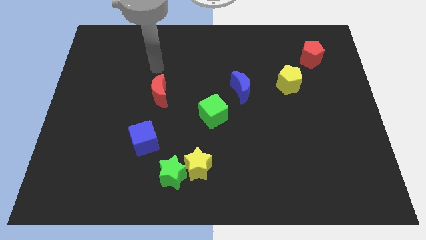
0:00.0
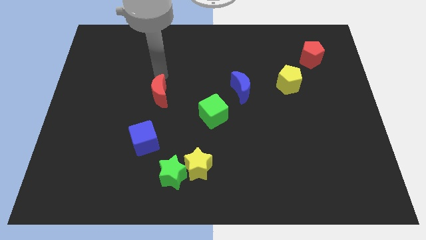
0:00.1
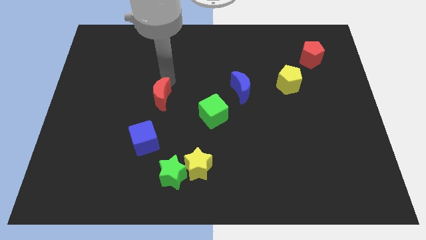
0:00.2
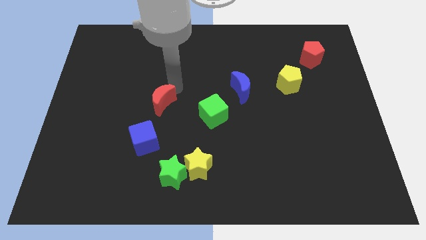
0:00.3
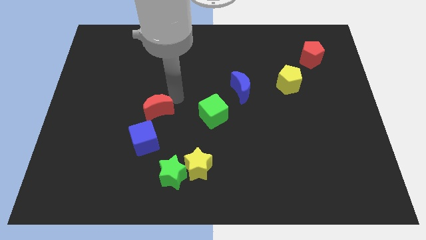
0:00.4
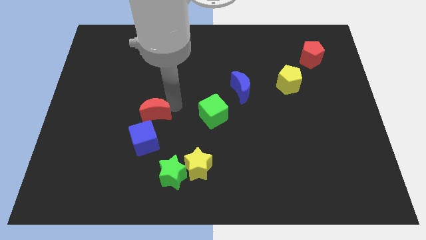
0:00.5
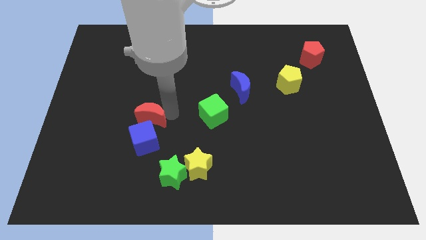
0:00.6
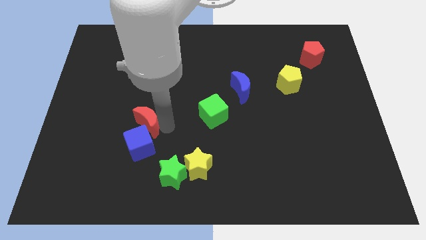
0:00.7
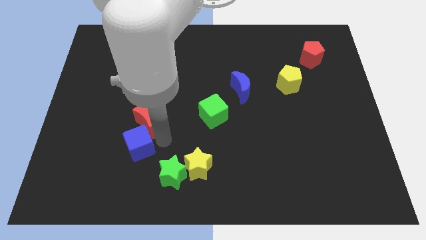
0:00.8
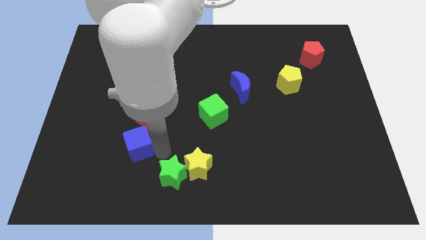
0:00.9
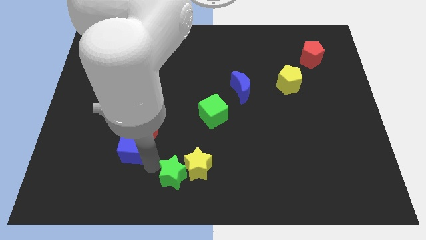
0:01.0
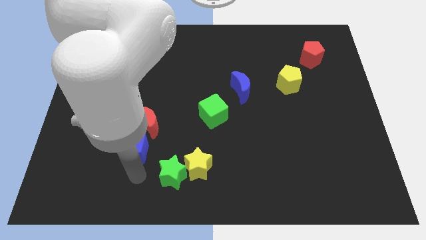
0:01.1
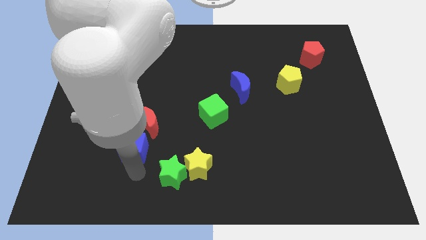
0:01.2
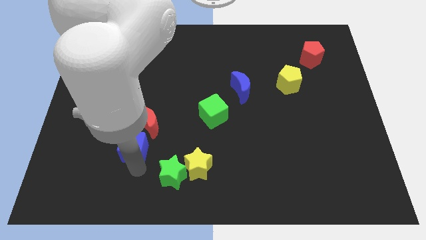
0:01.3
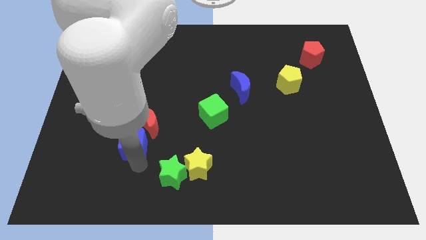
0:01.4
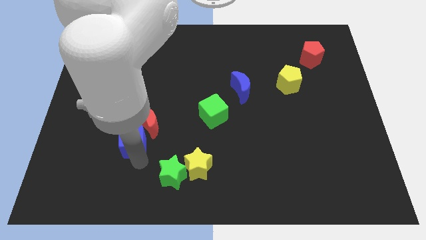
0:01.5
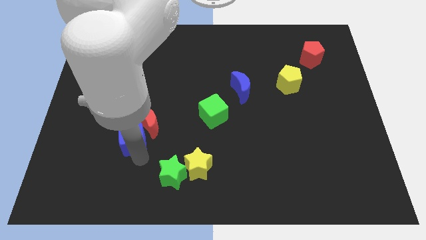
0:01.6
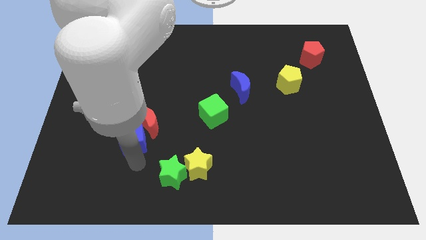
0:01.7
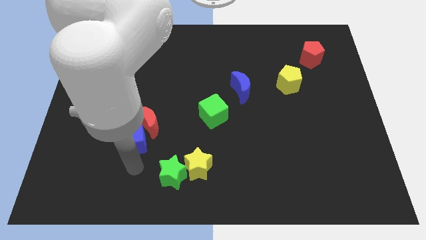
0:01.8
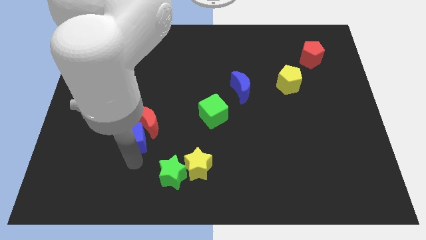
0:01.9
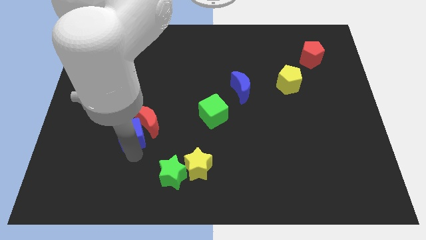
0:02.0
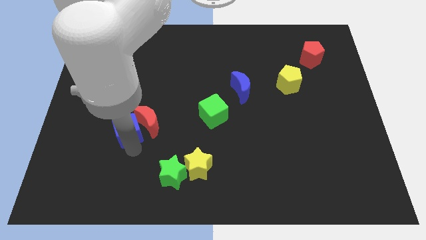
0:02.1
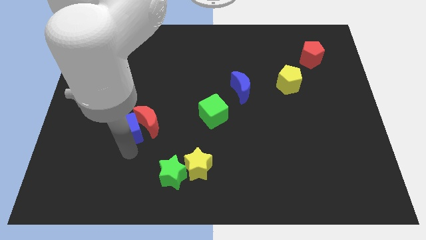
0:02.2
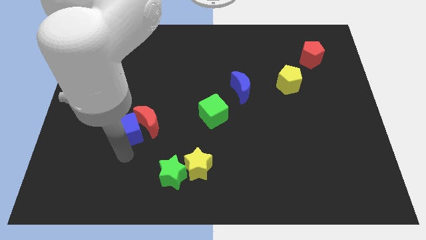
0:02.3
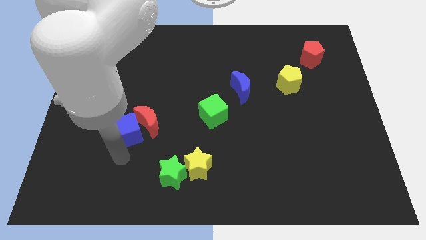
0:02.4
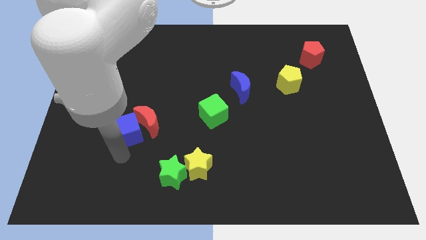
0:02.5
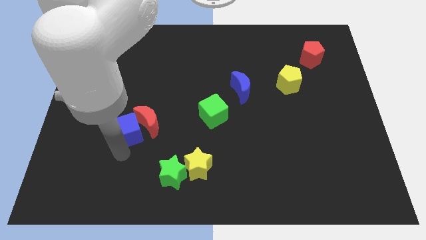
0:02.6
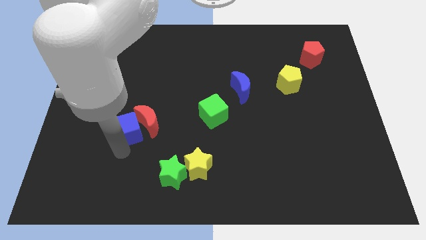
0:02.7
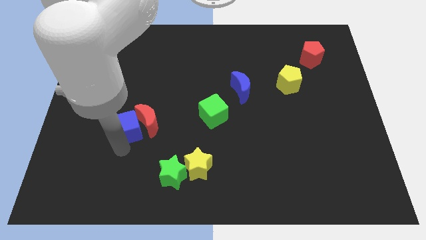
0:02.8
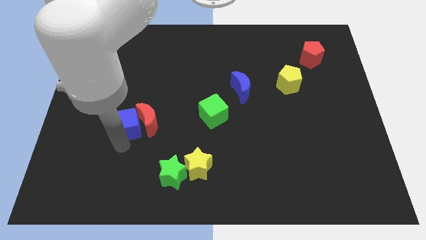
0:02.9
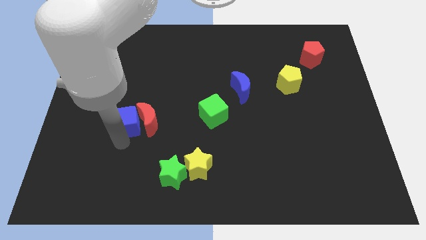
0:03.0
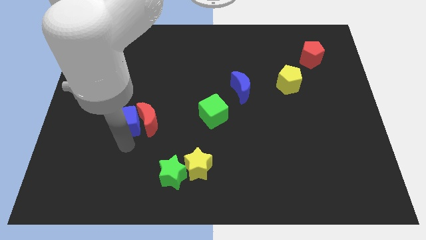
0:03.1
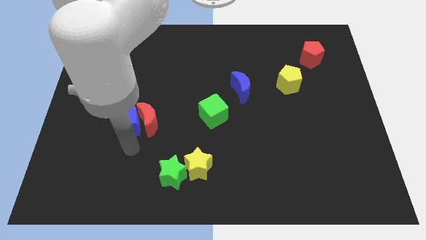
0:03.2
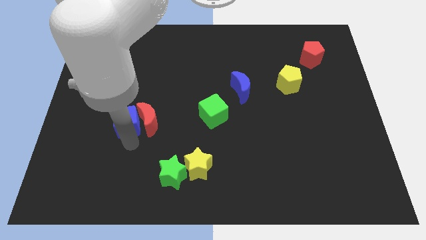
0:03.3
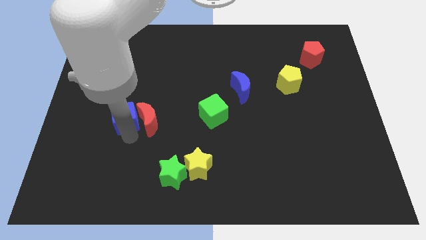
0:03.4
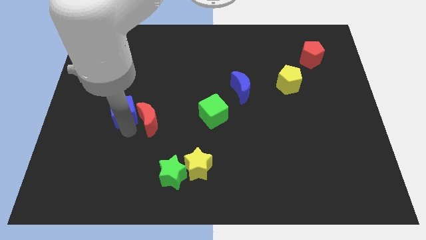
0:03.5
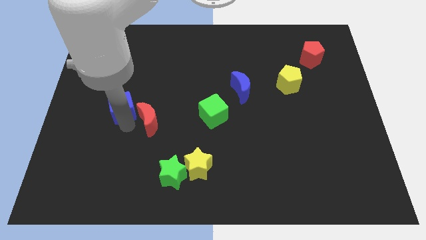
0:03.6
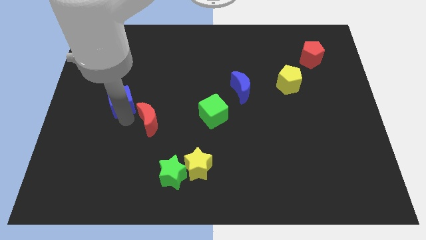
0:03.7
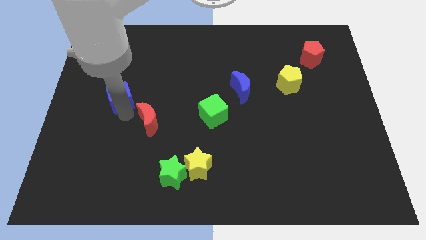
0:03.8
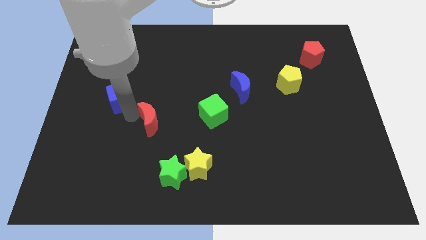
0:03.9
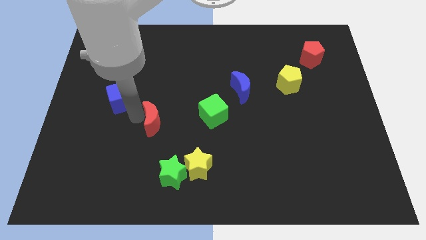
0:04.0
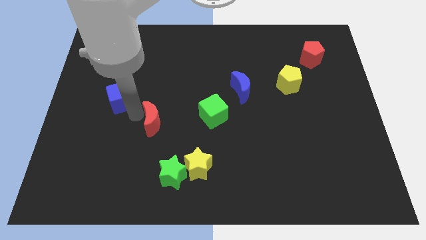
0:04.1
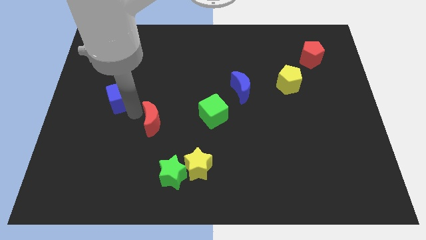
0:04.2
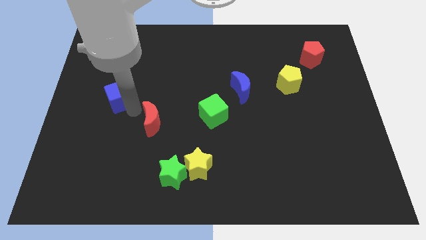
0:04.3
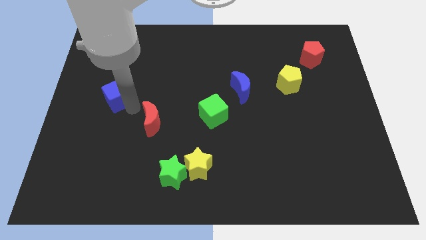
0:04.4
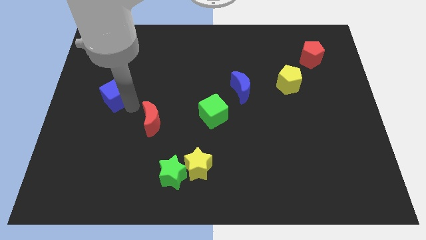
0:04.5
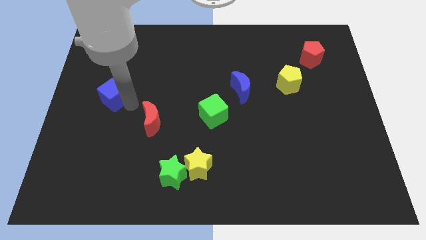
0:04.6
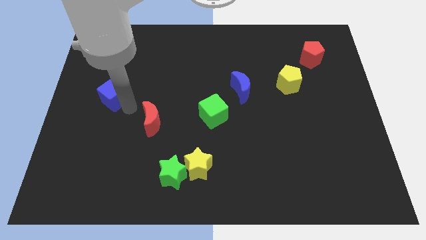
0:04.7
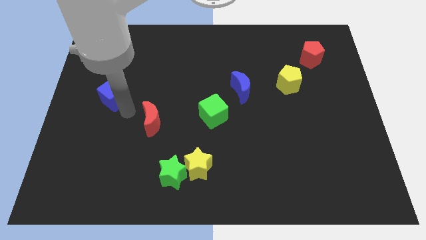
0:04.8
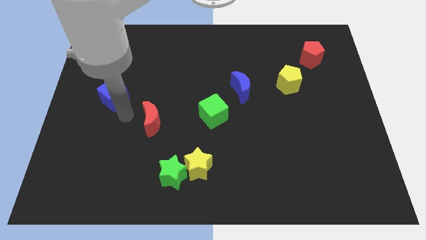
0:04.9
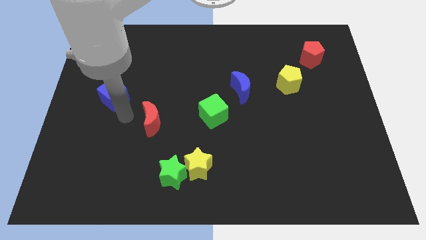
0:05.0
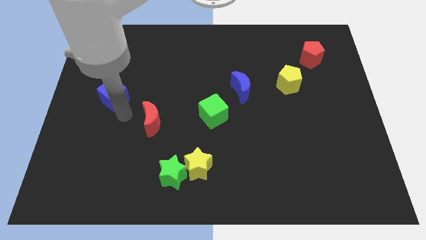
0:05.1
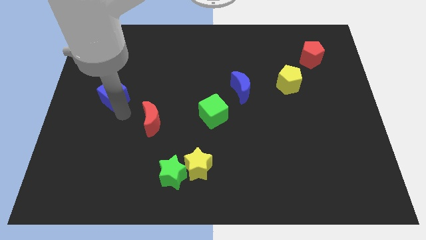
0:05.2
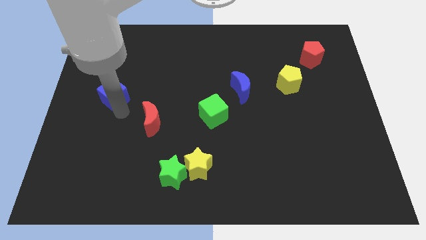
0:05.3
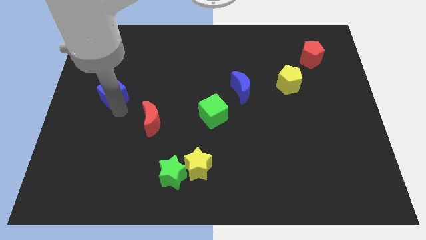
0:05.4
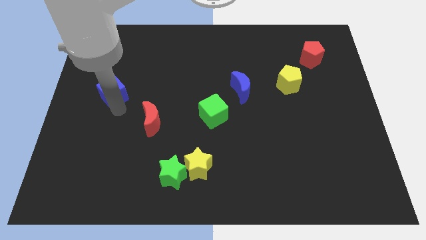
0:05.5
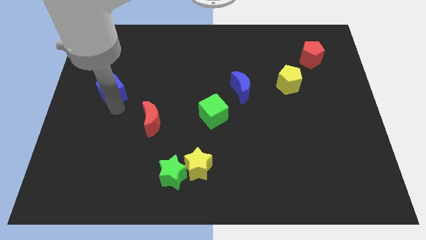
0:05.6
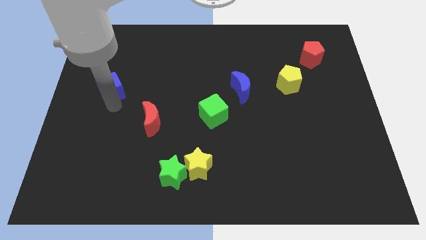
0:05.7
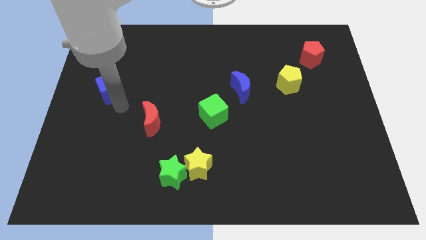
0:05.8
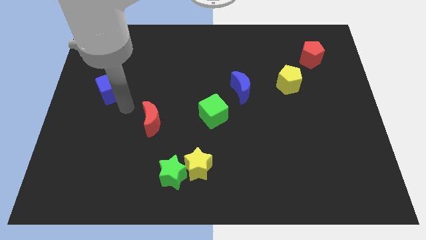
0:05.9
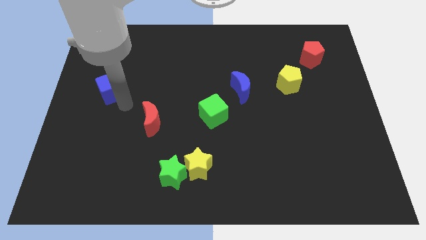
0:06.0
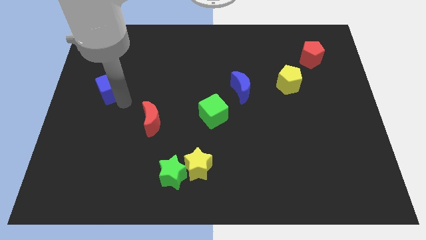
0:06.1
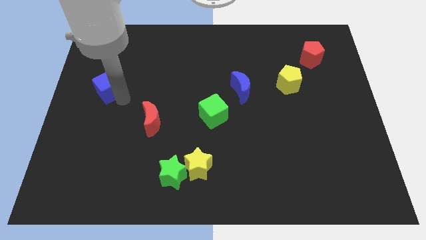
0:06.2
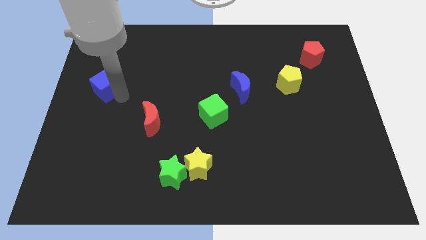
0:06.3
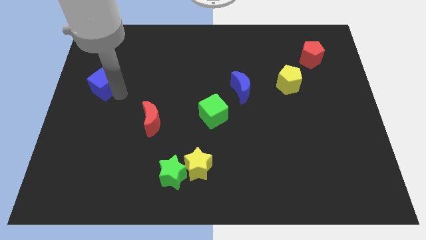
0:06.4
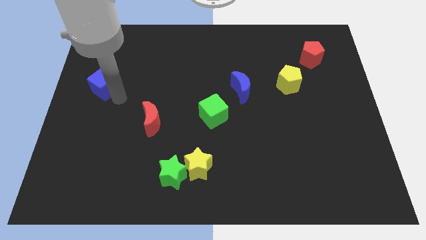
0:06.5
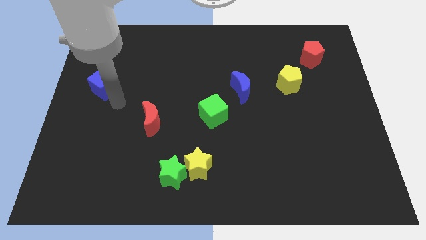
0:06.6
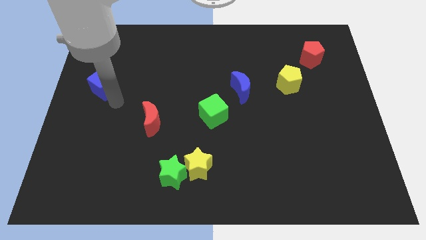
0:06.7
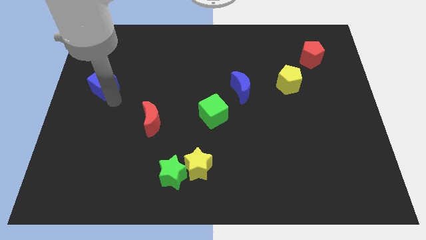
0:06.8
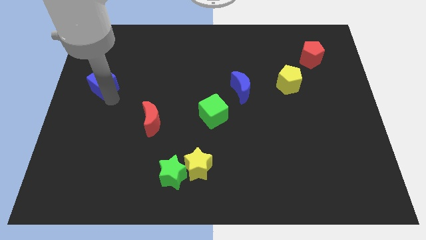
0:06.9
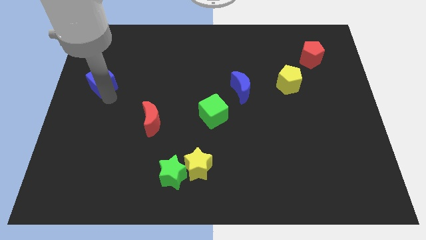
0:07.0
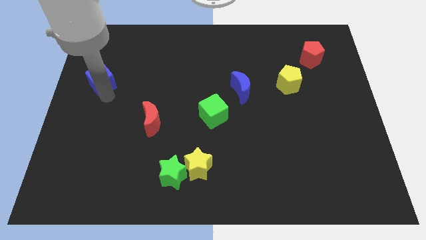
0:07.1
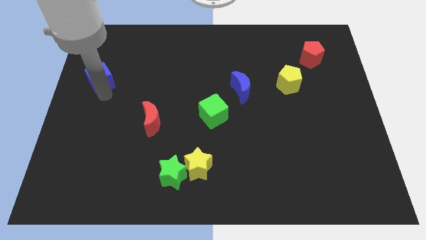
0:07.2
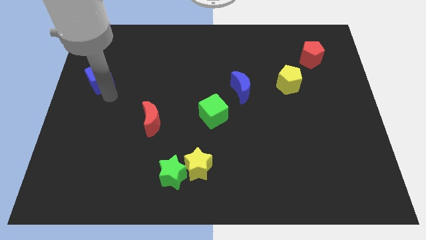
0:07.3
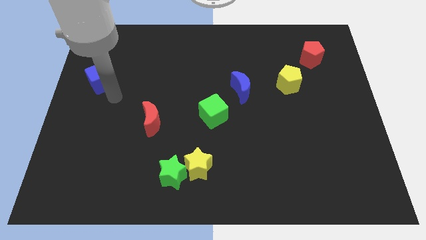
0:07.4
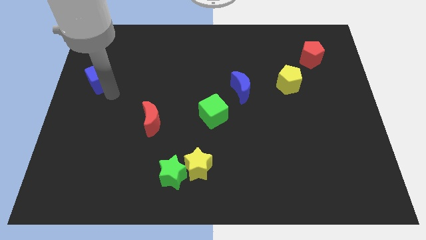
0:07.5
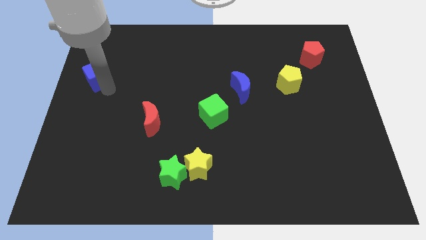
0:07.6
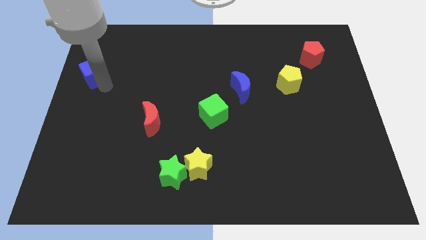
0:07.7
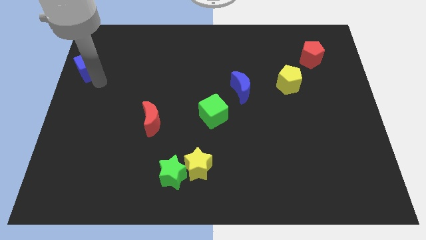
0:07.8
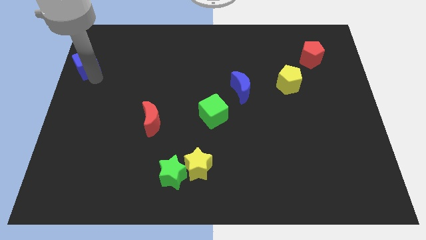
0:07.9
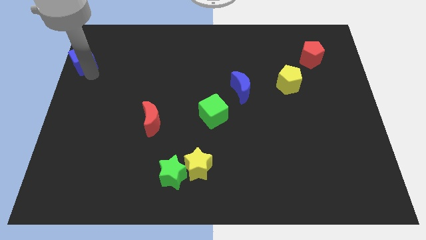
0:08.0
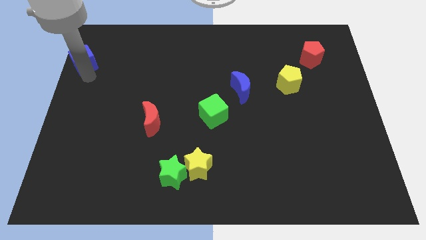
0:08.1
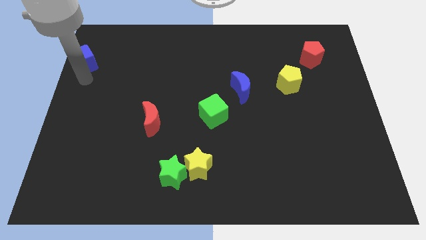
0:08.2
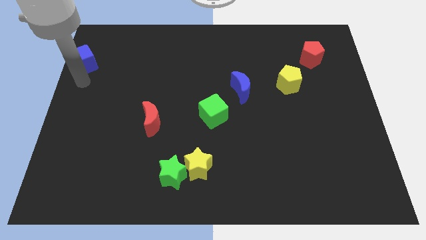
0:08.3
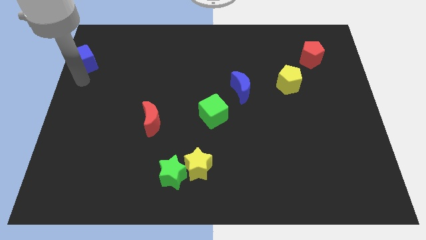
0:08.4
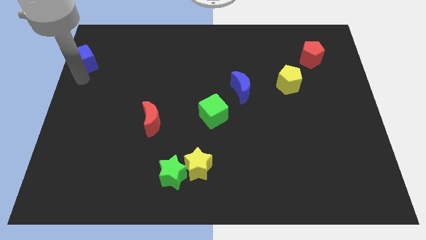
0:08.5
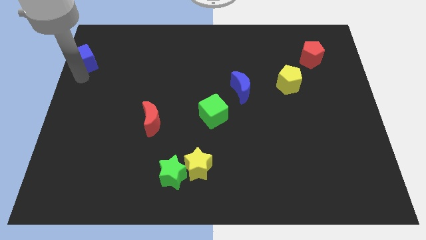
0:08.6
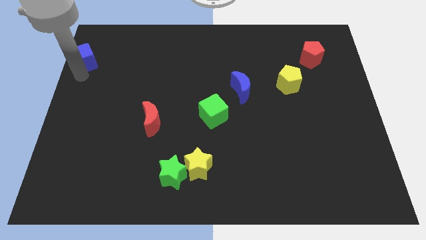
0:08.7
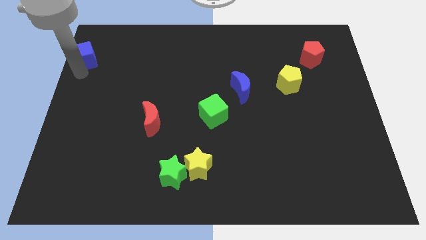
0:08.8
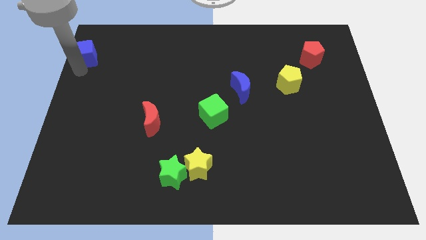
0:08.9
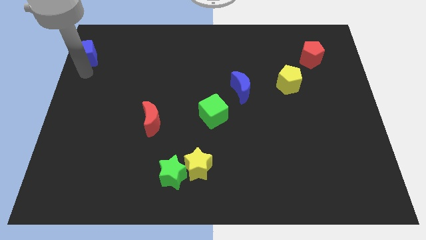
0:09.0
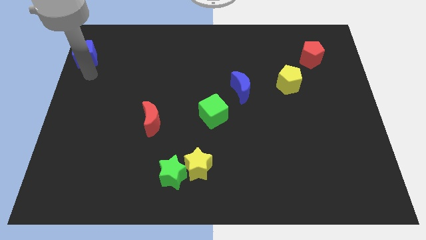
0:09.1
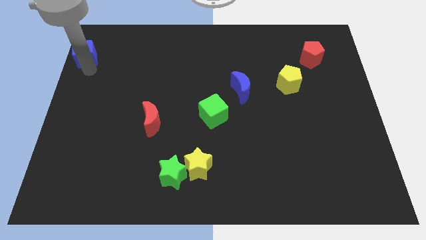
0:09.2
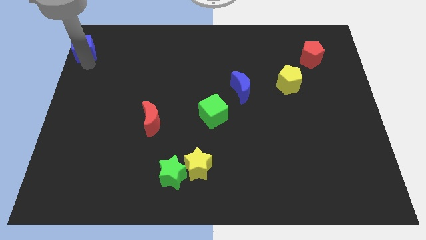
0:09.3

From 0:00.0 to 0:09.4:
push the blue cube to the upper left corner
